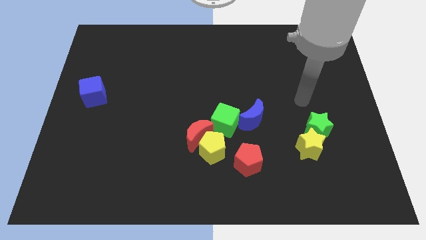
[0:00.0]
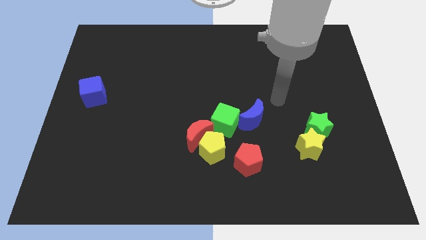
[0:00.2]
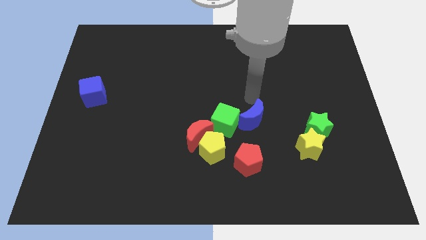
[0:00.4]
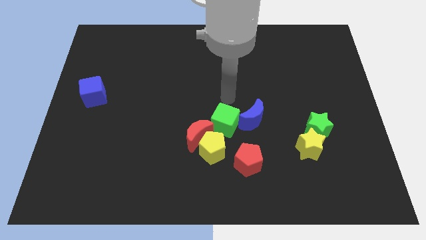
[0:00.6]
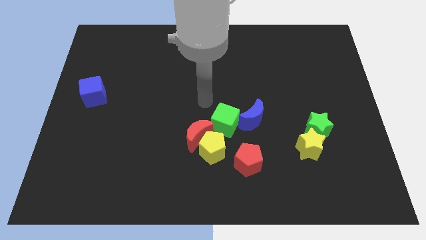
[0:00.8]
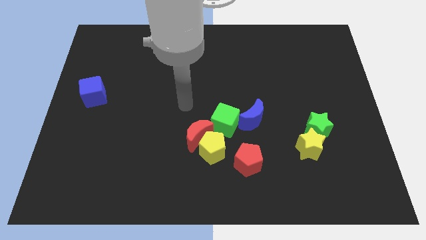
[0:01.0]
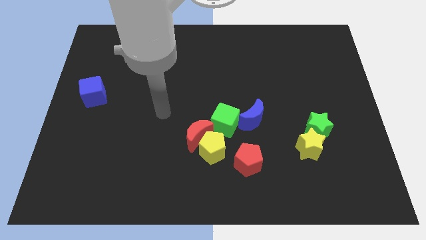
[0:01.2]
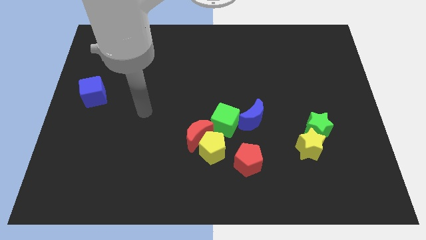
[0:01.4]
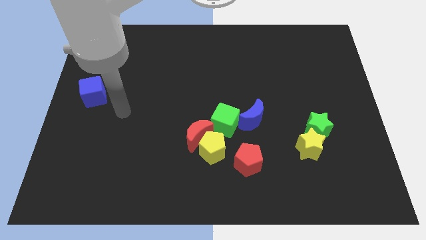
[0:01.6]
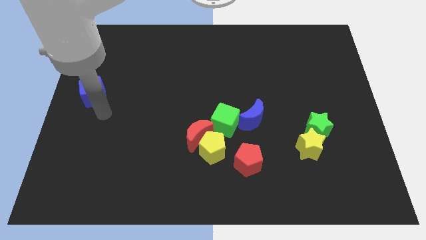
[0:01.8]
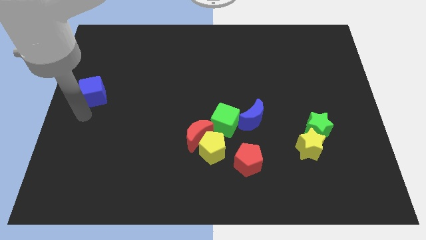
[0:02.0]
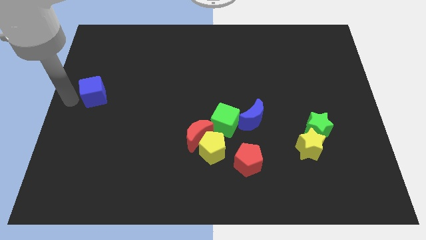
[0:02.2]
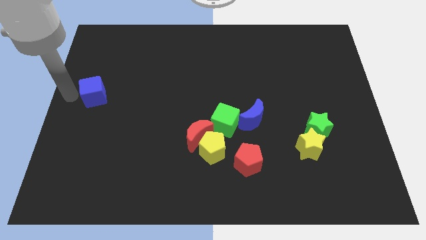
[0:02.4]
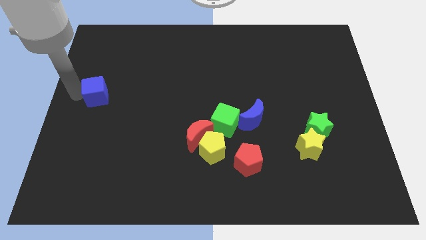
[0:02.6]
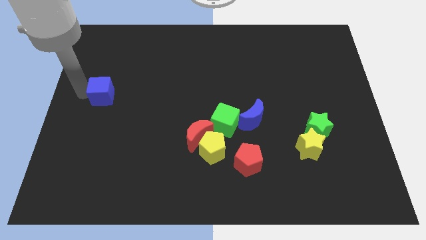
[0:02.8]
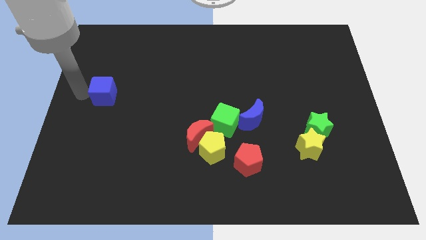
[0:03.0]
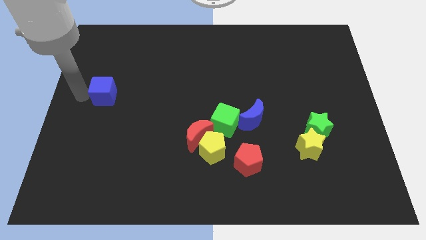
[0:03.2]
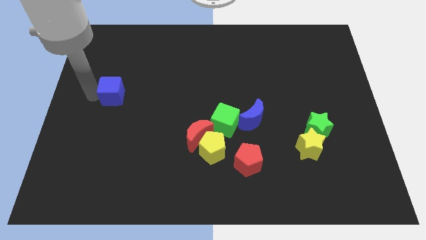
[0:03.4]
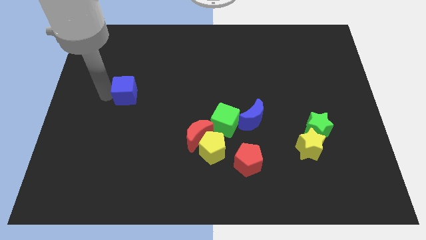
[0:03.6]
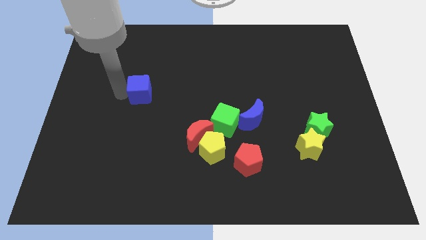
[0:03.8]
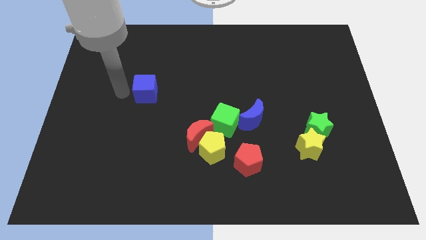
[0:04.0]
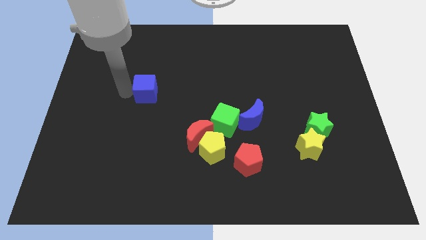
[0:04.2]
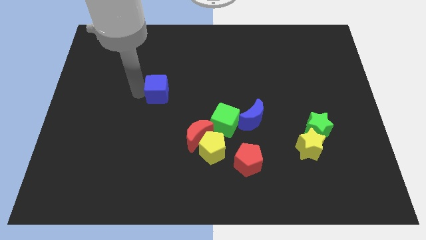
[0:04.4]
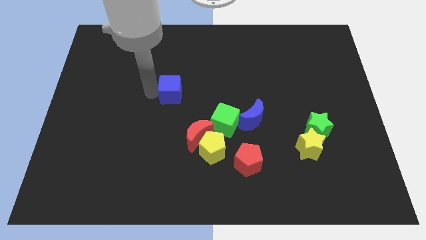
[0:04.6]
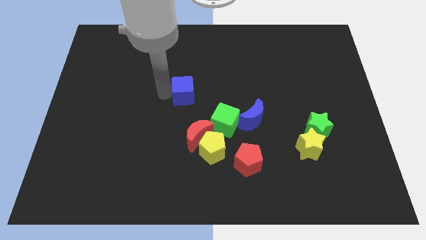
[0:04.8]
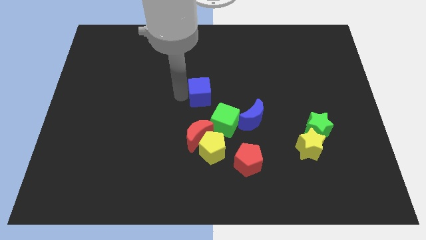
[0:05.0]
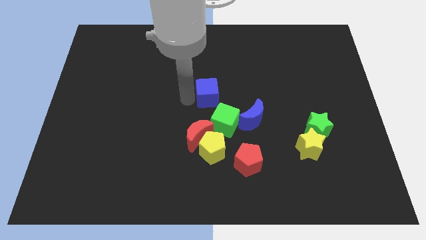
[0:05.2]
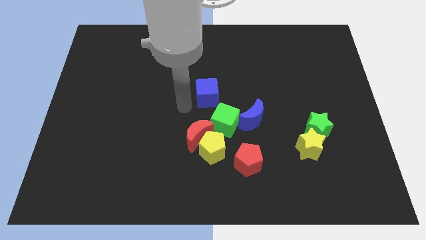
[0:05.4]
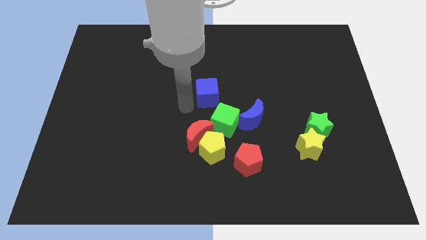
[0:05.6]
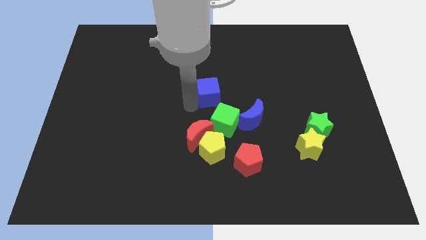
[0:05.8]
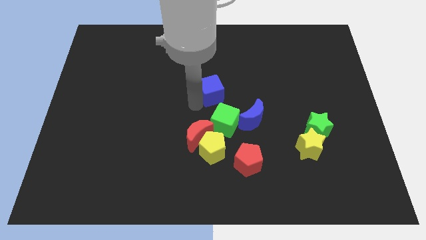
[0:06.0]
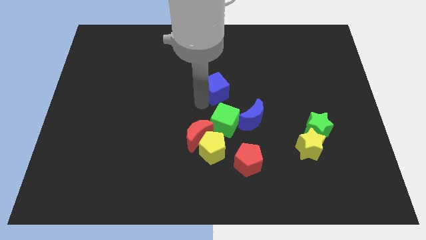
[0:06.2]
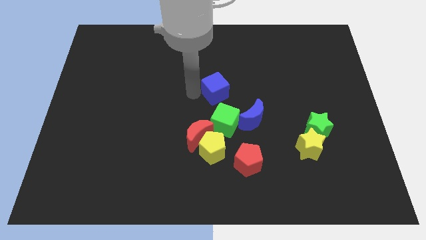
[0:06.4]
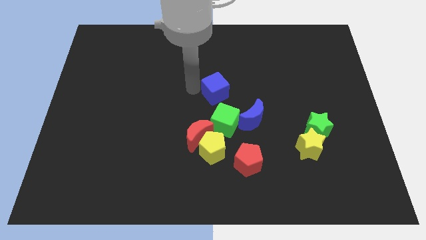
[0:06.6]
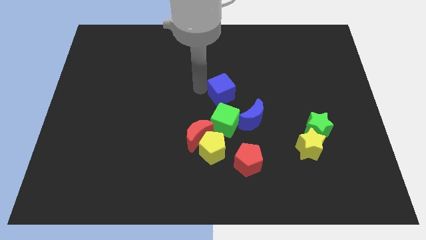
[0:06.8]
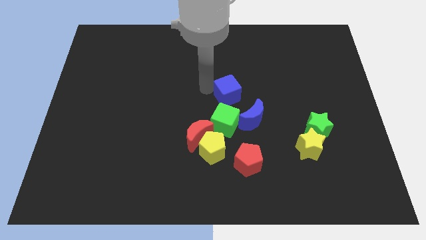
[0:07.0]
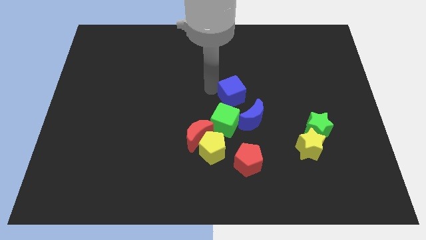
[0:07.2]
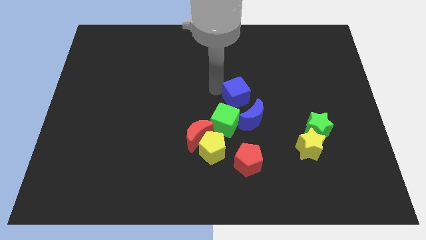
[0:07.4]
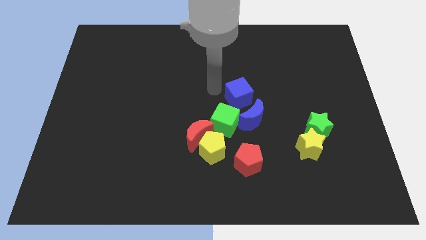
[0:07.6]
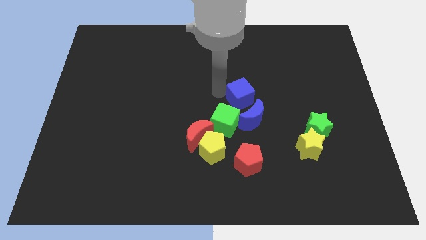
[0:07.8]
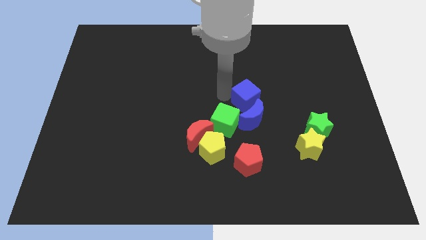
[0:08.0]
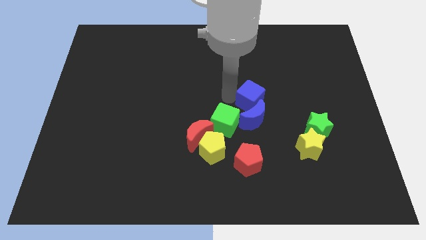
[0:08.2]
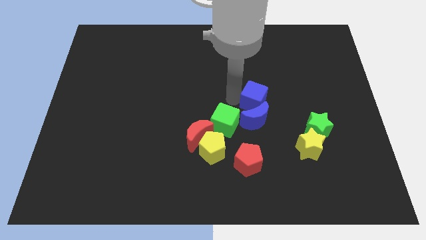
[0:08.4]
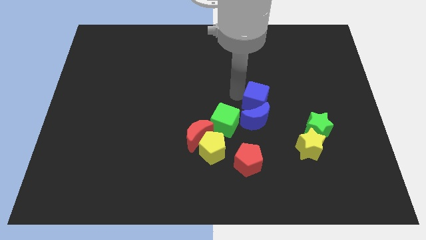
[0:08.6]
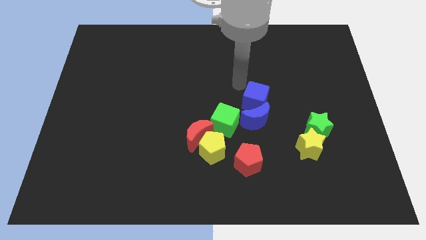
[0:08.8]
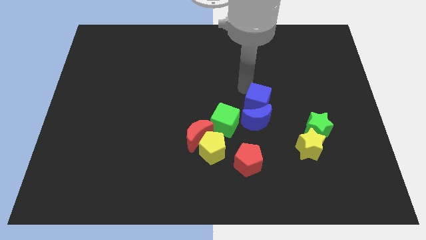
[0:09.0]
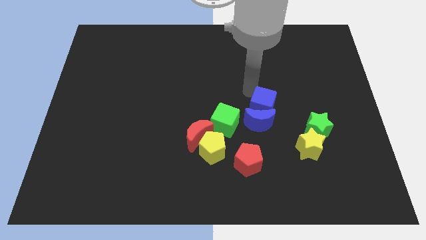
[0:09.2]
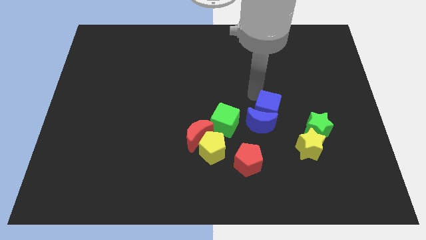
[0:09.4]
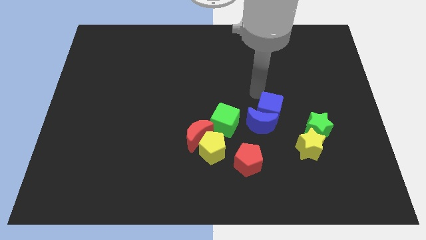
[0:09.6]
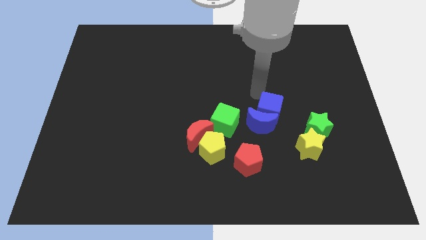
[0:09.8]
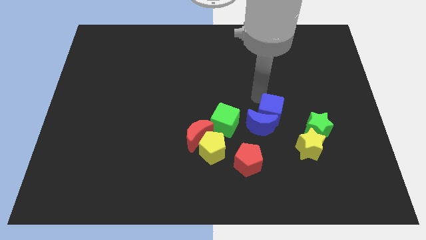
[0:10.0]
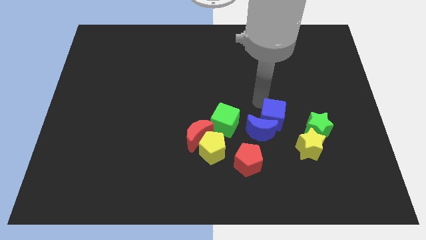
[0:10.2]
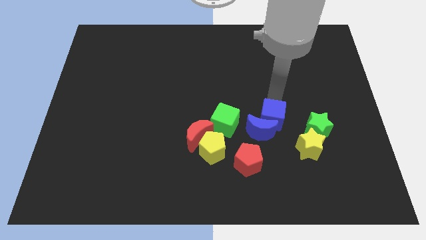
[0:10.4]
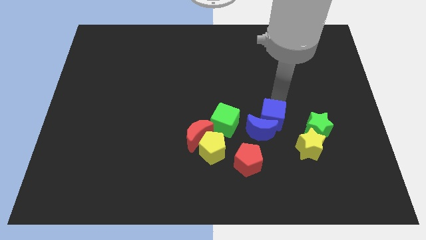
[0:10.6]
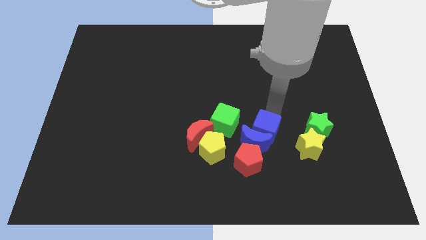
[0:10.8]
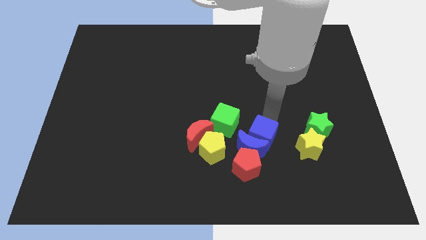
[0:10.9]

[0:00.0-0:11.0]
put the blue cube just right of the yellow pentagon

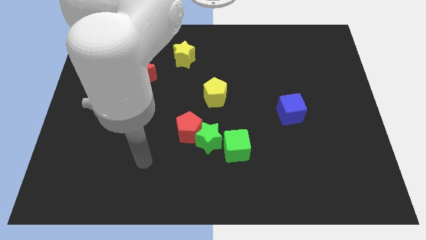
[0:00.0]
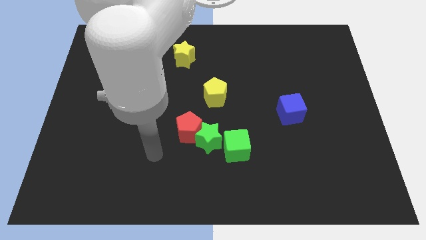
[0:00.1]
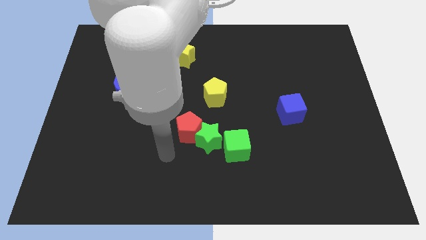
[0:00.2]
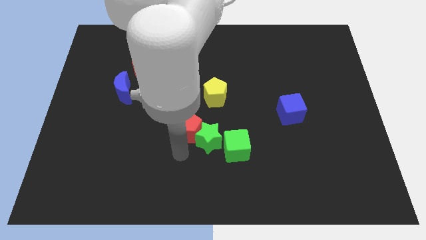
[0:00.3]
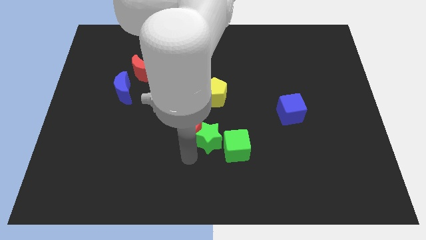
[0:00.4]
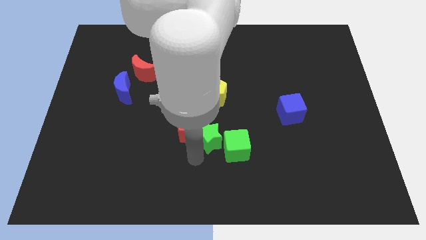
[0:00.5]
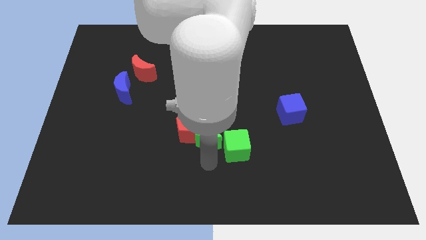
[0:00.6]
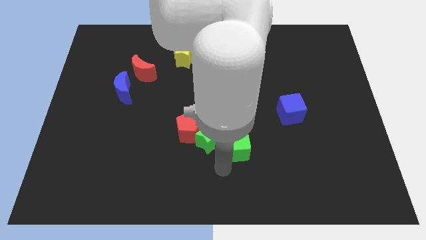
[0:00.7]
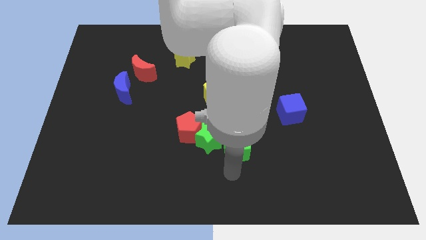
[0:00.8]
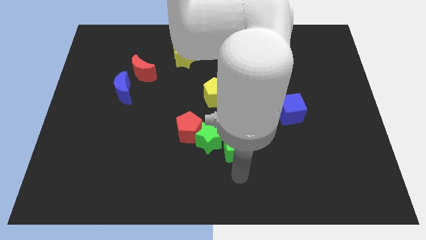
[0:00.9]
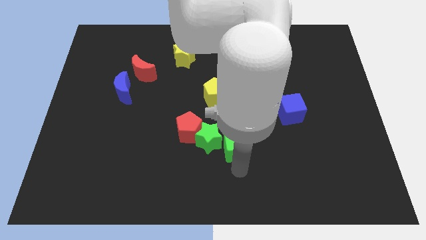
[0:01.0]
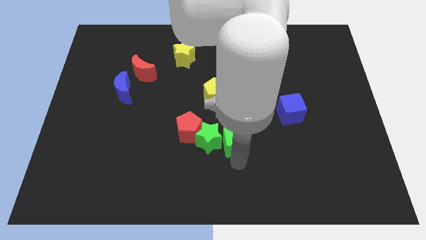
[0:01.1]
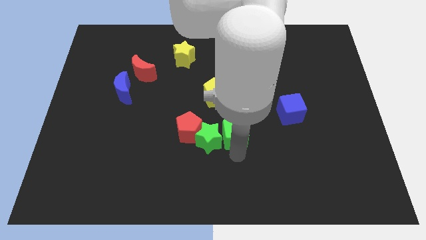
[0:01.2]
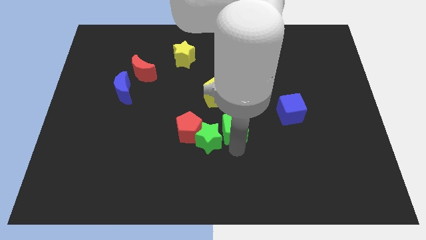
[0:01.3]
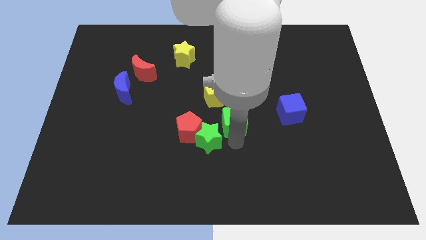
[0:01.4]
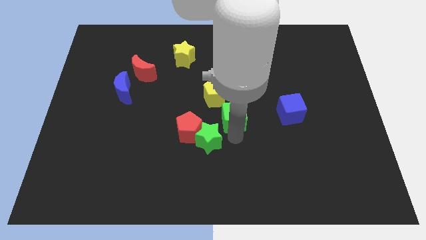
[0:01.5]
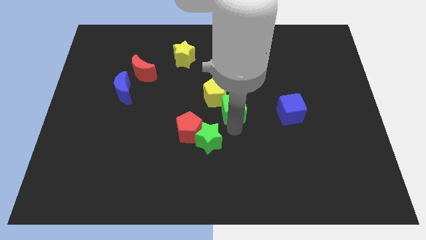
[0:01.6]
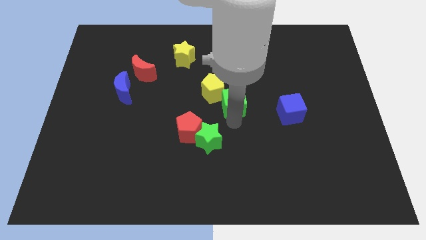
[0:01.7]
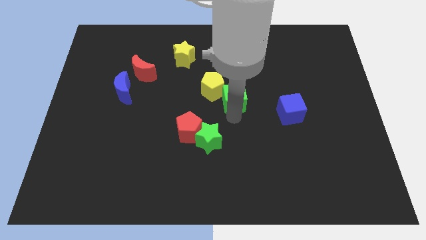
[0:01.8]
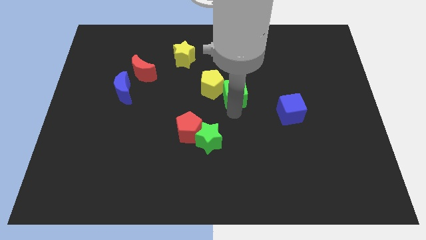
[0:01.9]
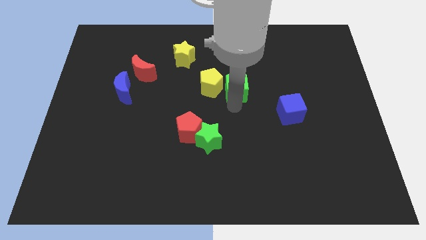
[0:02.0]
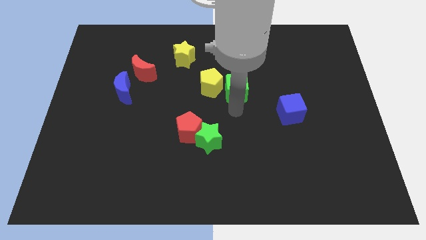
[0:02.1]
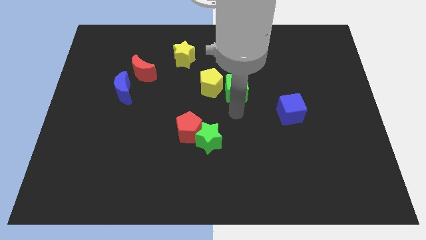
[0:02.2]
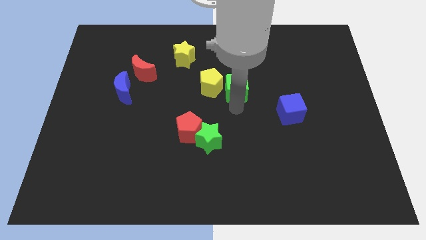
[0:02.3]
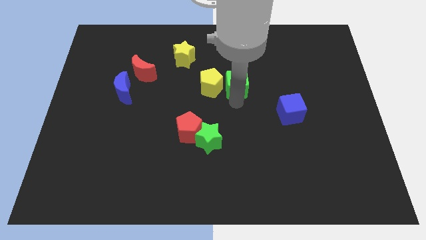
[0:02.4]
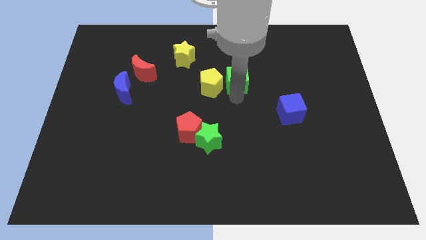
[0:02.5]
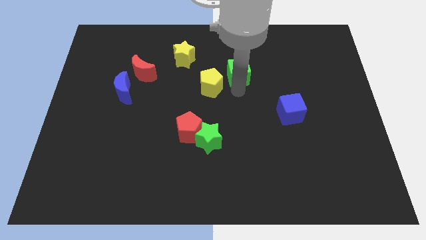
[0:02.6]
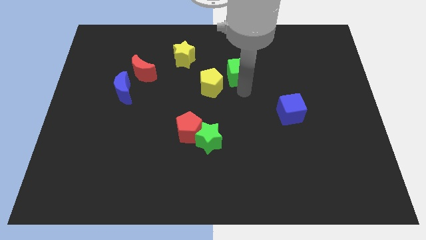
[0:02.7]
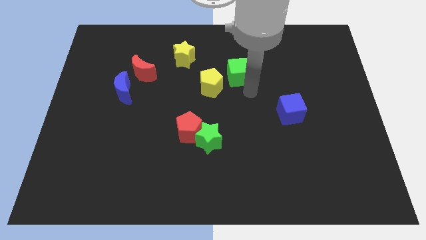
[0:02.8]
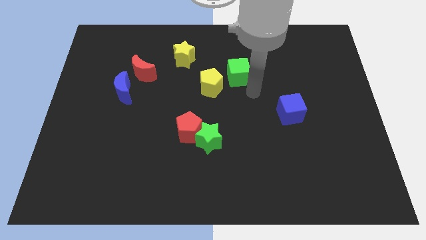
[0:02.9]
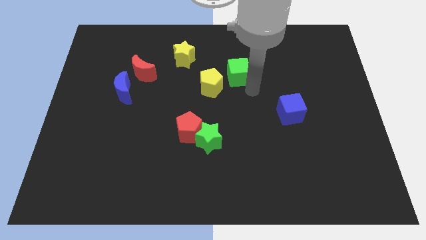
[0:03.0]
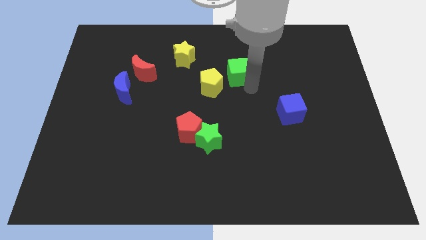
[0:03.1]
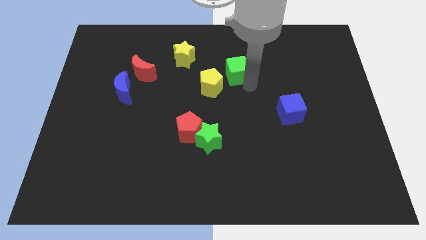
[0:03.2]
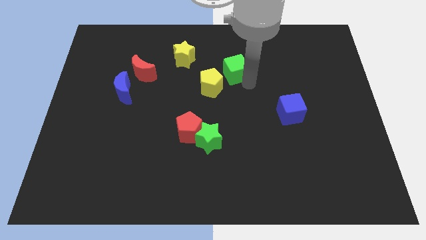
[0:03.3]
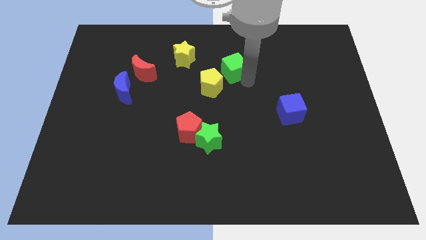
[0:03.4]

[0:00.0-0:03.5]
put the green cube to the right of the yellow star
